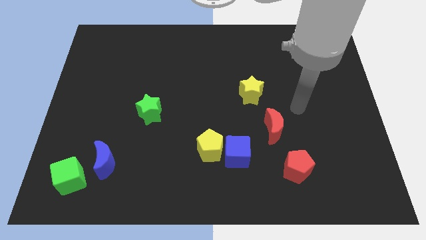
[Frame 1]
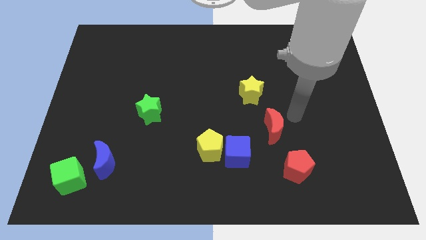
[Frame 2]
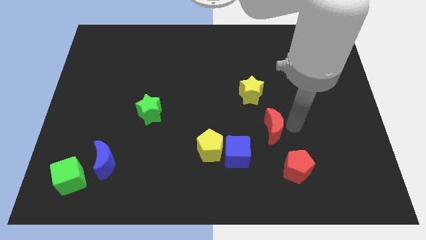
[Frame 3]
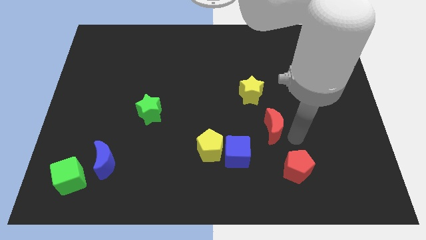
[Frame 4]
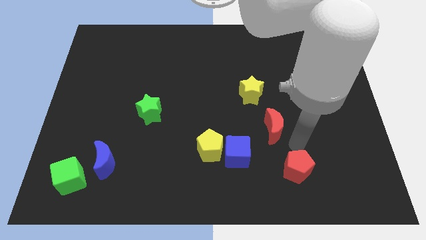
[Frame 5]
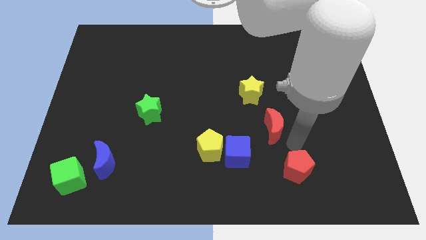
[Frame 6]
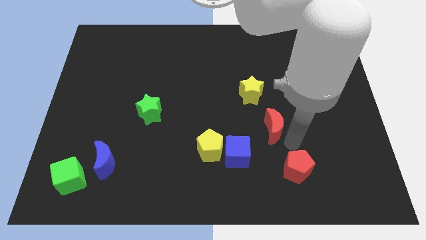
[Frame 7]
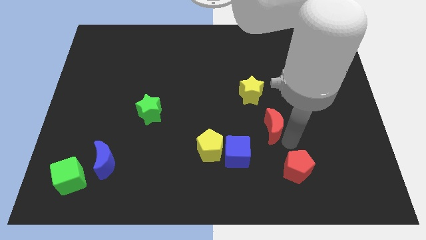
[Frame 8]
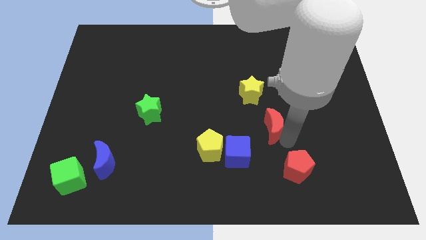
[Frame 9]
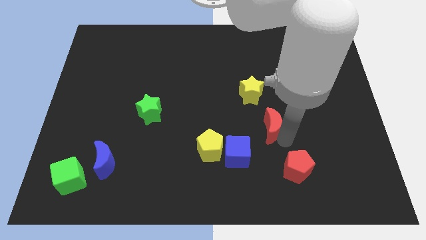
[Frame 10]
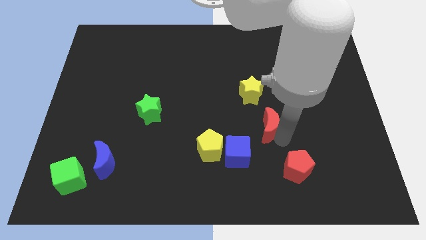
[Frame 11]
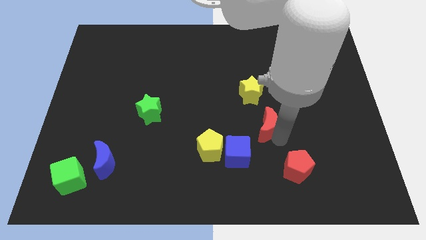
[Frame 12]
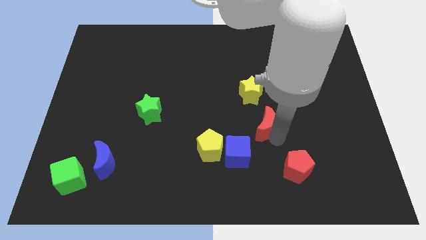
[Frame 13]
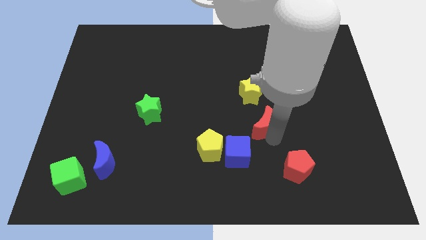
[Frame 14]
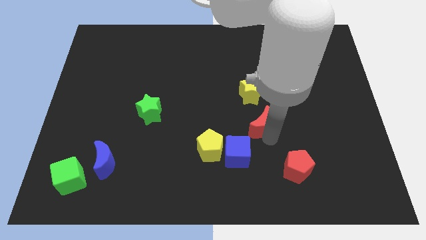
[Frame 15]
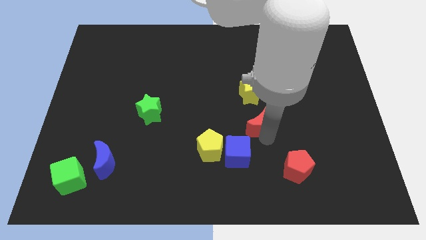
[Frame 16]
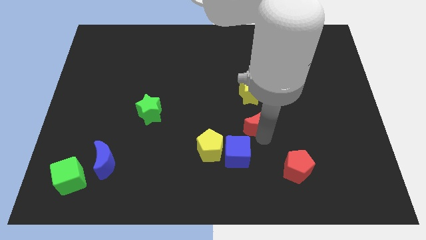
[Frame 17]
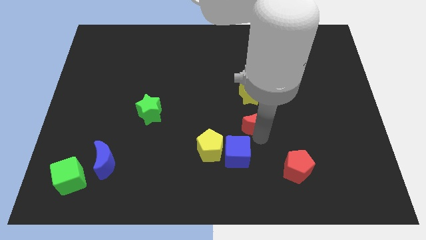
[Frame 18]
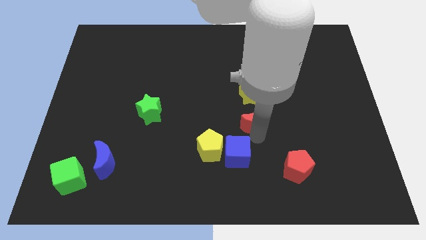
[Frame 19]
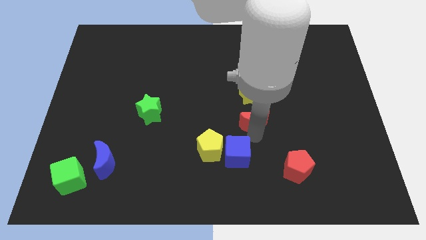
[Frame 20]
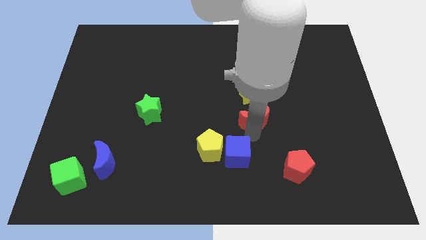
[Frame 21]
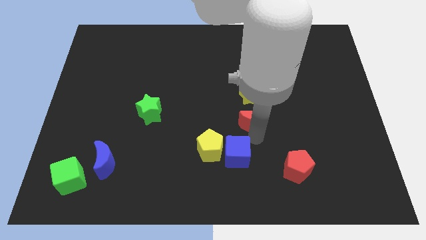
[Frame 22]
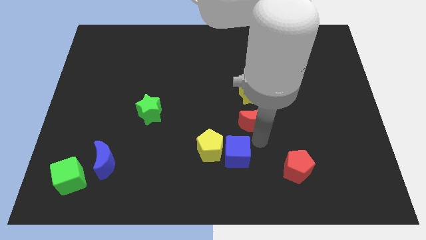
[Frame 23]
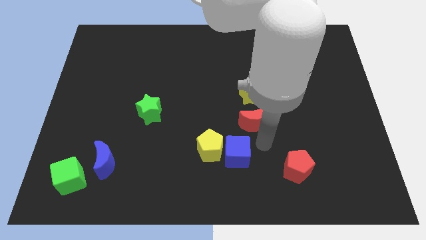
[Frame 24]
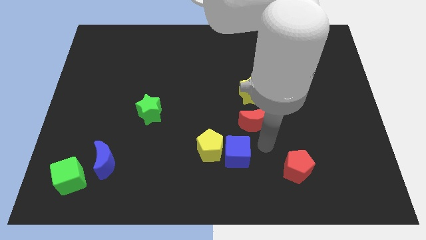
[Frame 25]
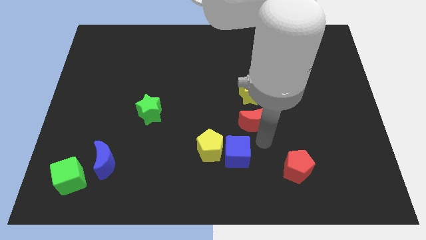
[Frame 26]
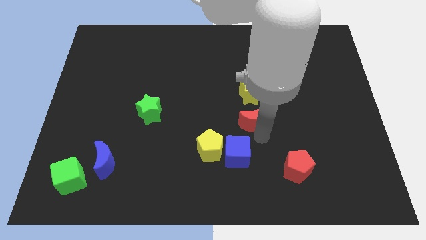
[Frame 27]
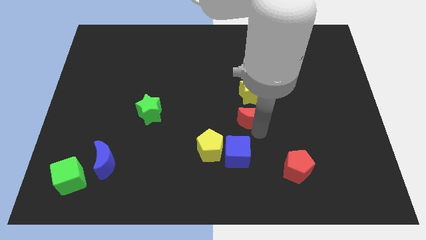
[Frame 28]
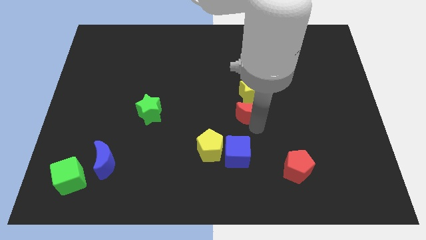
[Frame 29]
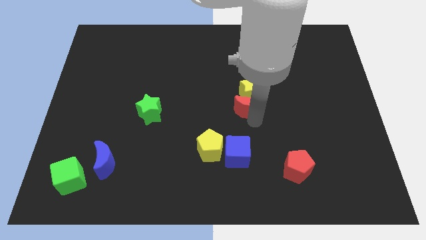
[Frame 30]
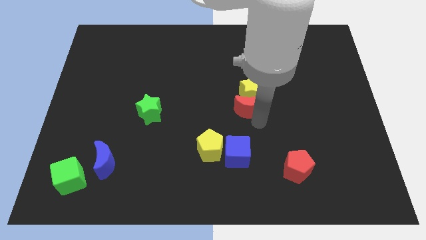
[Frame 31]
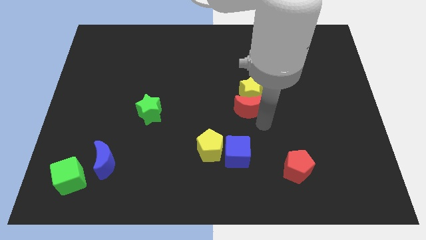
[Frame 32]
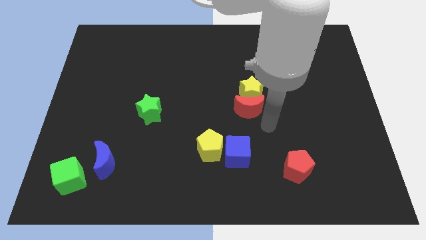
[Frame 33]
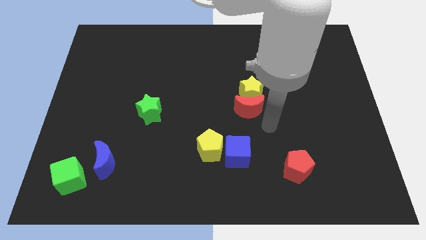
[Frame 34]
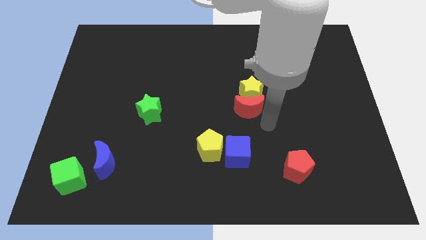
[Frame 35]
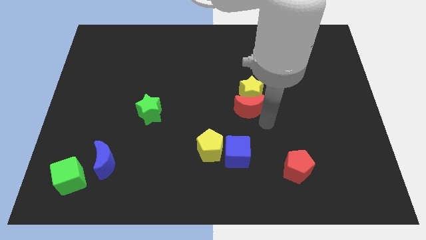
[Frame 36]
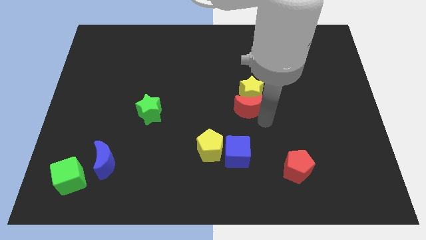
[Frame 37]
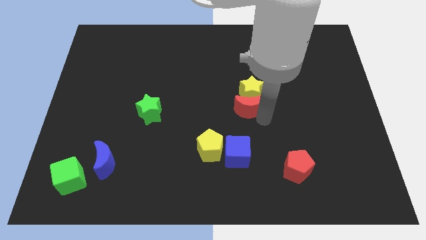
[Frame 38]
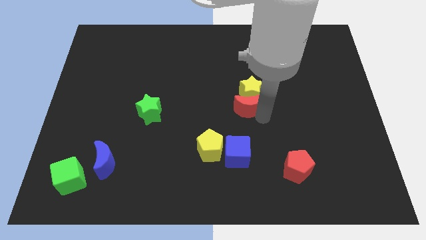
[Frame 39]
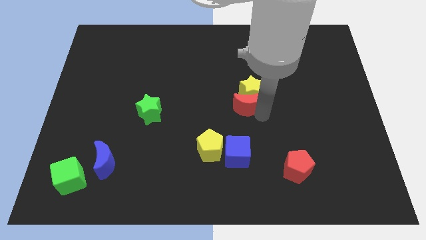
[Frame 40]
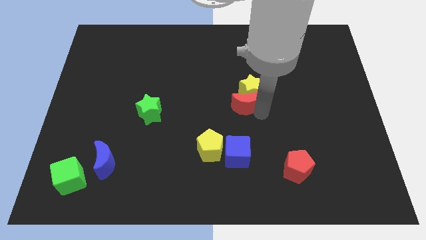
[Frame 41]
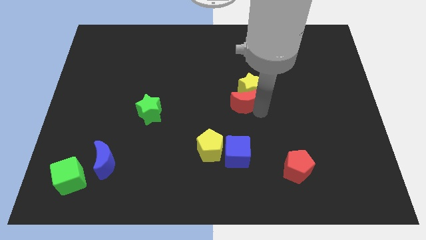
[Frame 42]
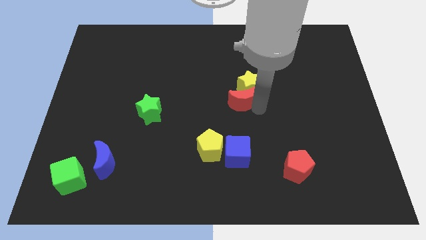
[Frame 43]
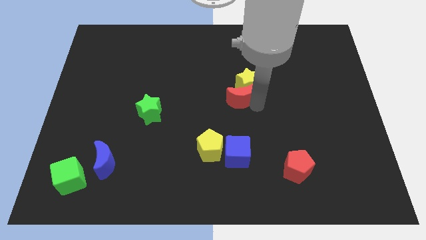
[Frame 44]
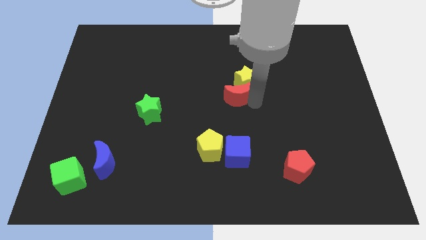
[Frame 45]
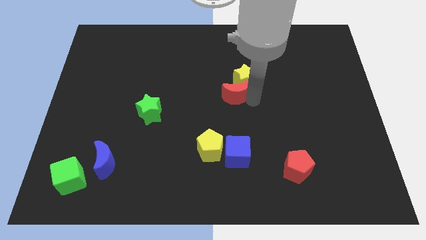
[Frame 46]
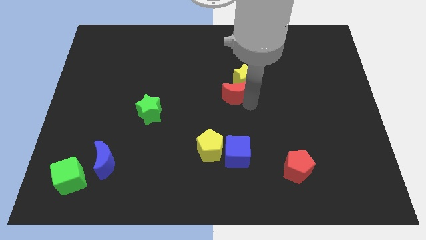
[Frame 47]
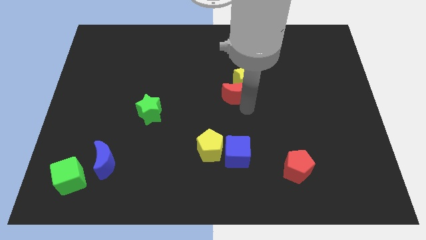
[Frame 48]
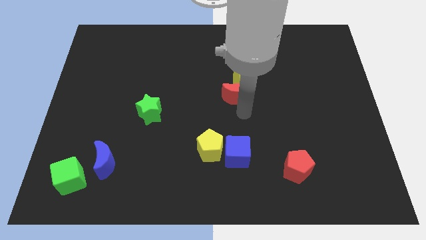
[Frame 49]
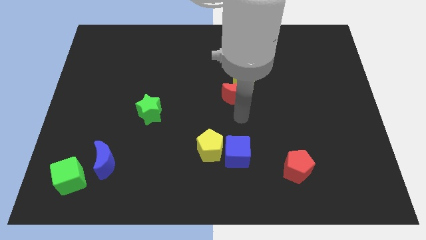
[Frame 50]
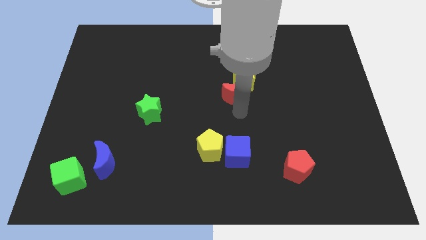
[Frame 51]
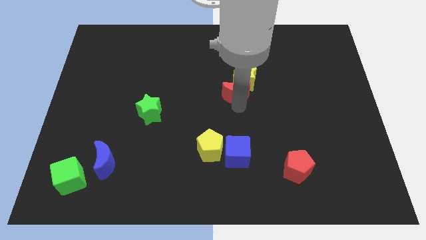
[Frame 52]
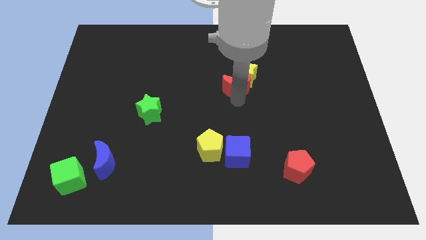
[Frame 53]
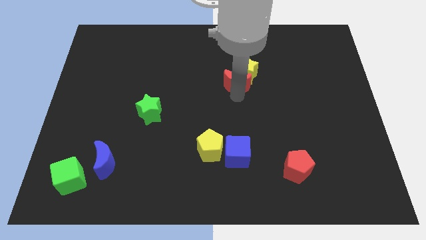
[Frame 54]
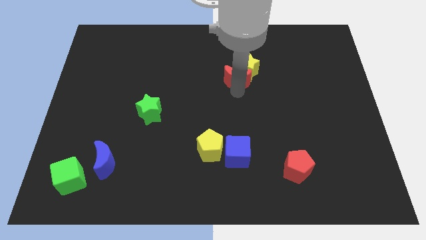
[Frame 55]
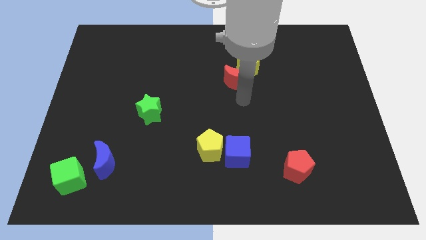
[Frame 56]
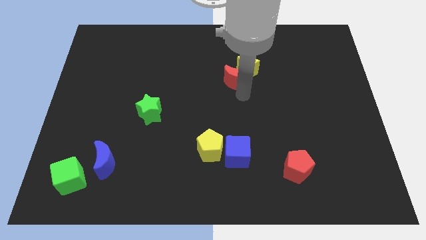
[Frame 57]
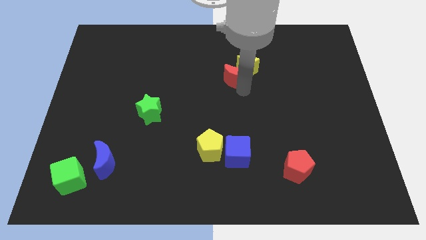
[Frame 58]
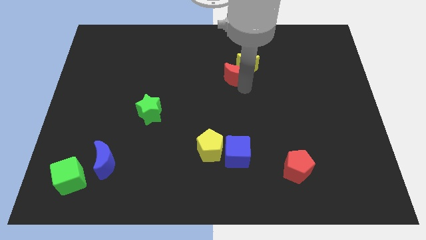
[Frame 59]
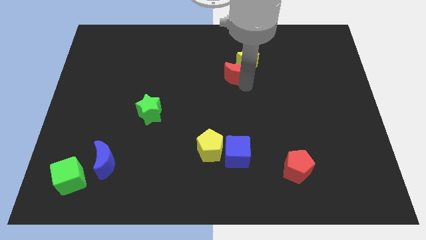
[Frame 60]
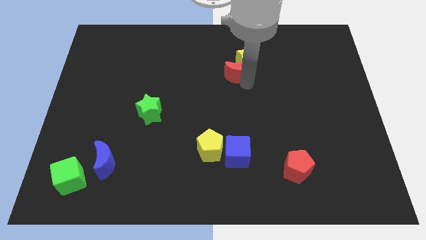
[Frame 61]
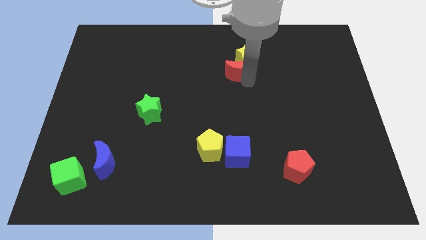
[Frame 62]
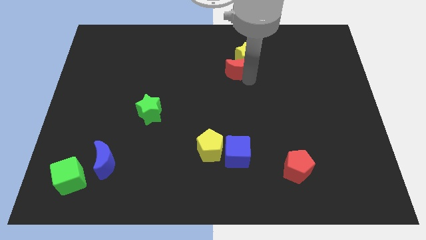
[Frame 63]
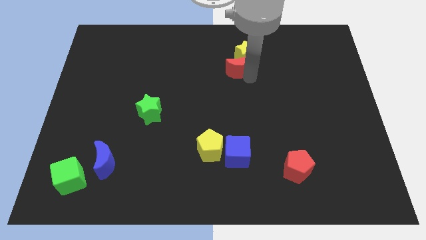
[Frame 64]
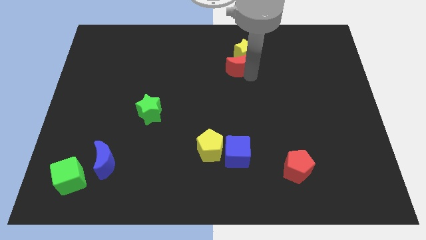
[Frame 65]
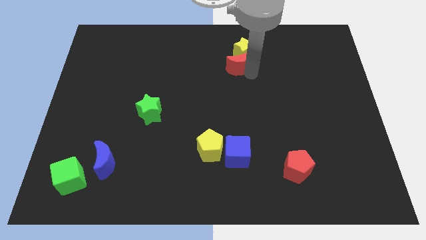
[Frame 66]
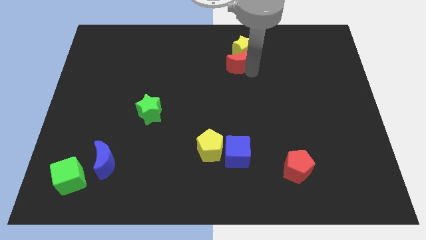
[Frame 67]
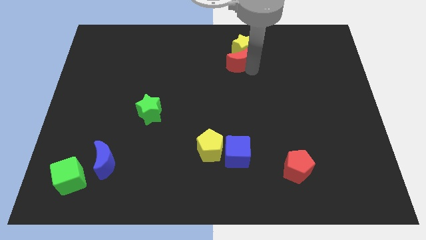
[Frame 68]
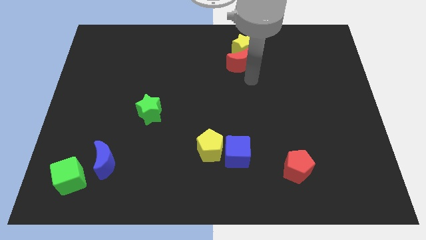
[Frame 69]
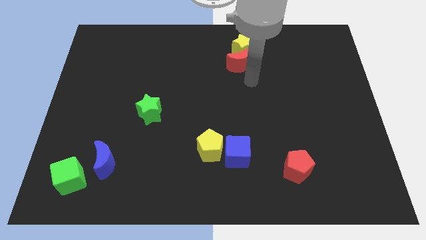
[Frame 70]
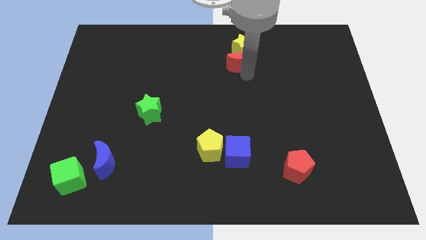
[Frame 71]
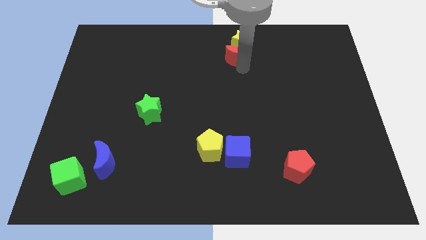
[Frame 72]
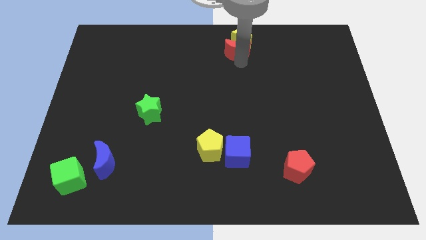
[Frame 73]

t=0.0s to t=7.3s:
push the red moon to the towards your base
